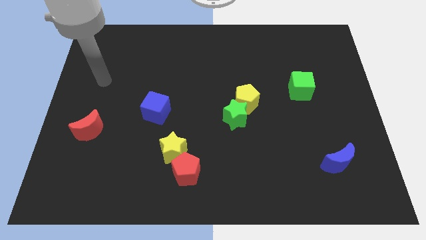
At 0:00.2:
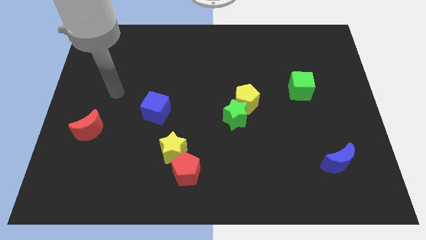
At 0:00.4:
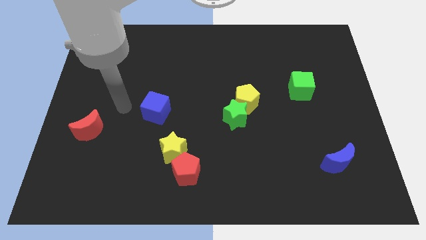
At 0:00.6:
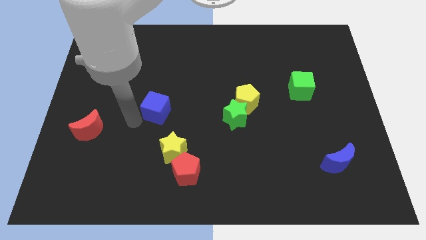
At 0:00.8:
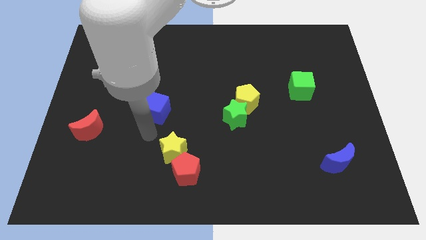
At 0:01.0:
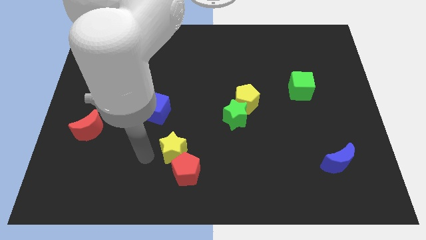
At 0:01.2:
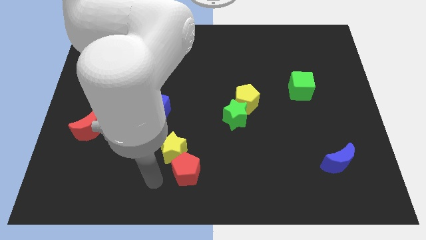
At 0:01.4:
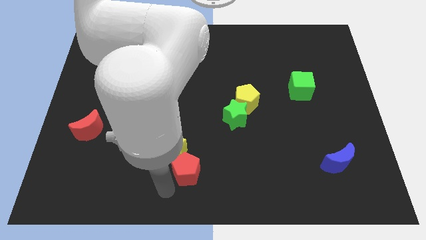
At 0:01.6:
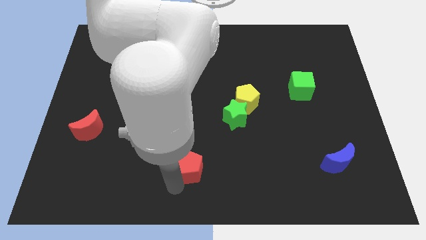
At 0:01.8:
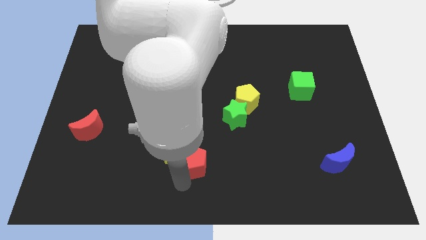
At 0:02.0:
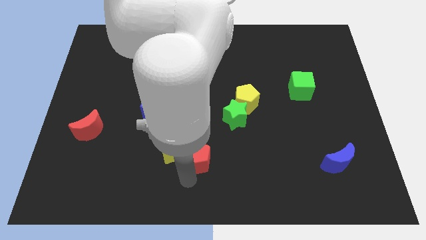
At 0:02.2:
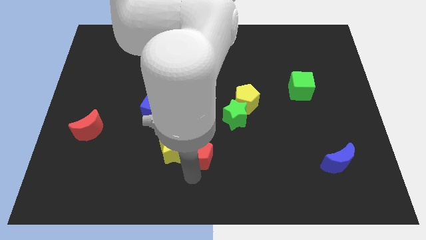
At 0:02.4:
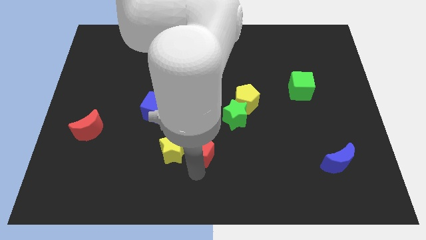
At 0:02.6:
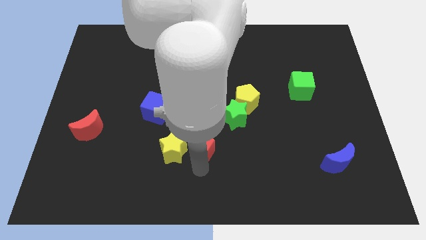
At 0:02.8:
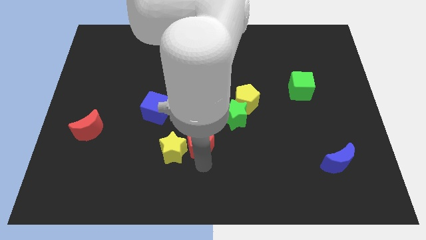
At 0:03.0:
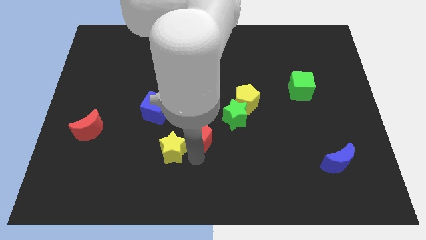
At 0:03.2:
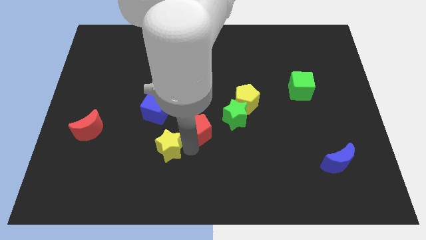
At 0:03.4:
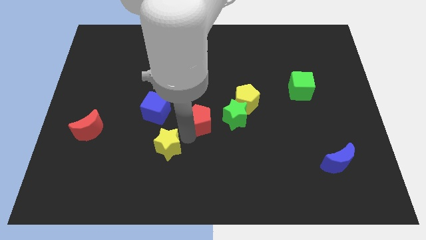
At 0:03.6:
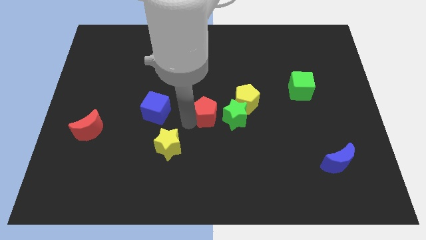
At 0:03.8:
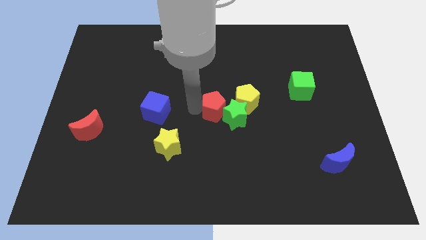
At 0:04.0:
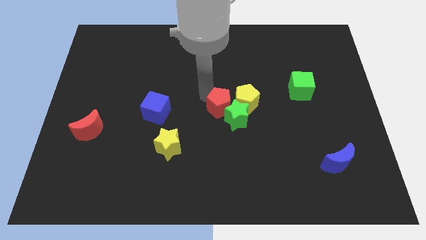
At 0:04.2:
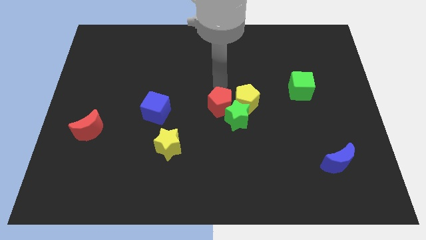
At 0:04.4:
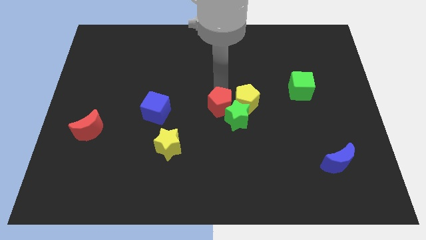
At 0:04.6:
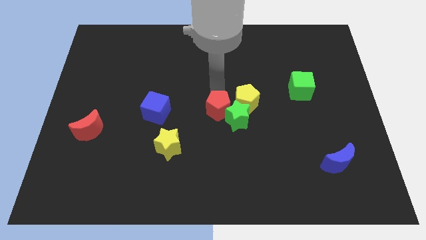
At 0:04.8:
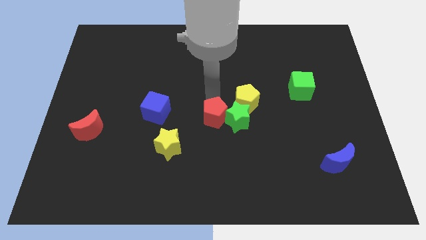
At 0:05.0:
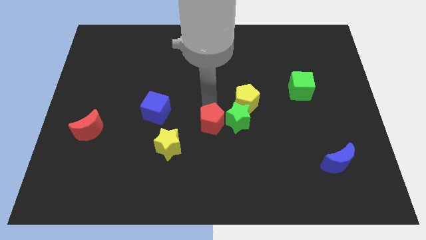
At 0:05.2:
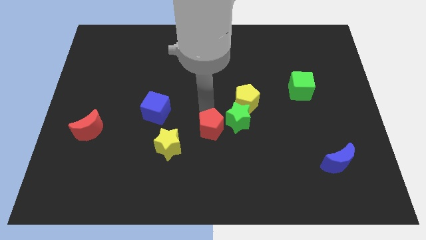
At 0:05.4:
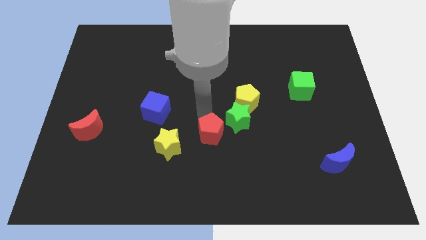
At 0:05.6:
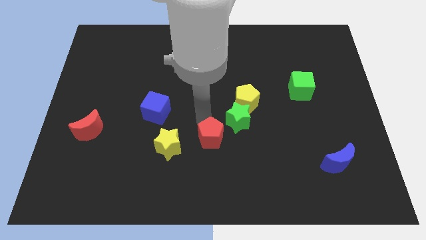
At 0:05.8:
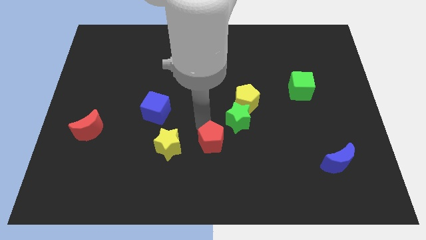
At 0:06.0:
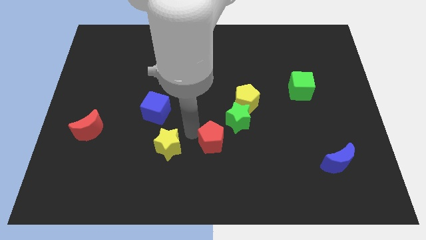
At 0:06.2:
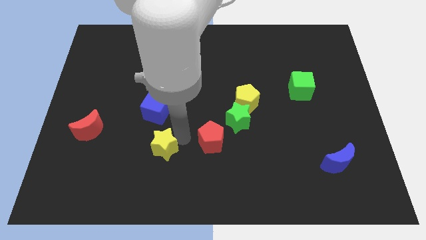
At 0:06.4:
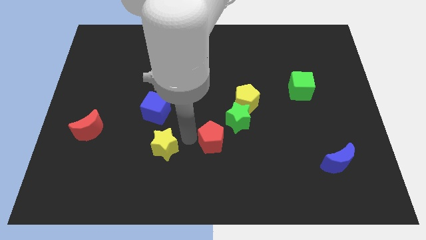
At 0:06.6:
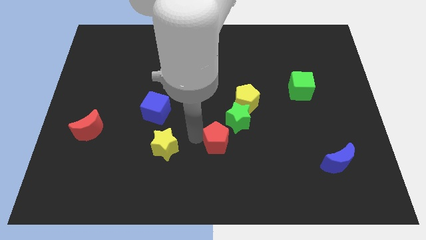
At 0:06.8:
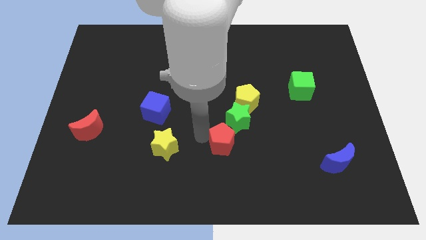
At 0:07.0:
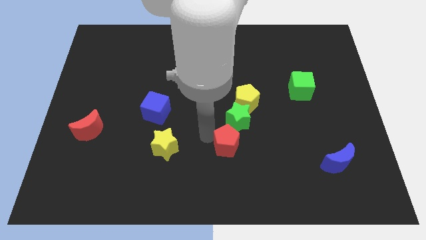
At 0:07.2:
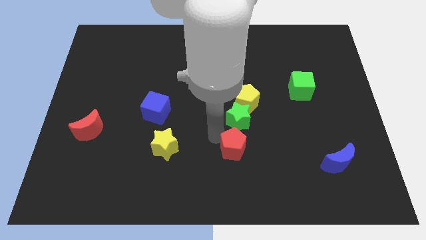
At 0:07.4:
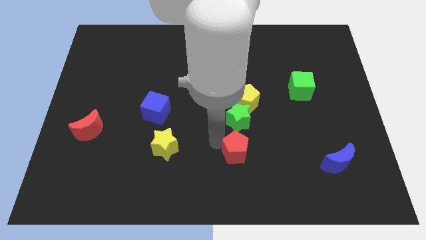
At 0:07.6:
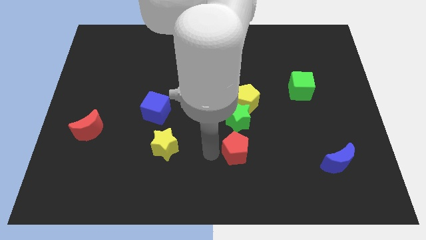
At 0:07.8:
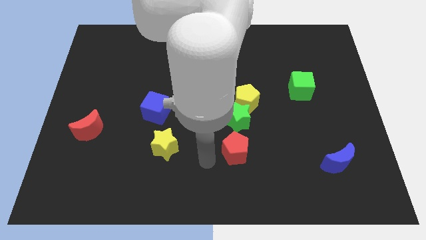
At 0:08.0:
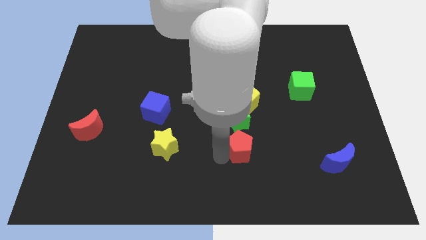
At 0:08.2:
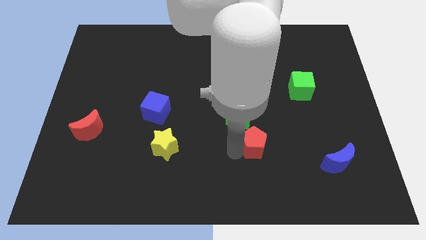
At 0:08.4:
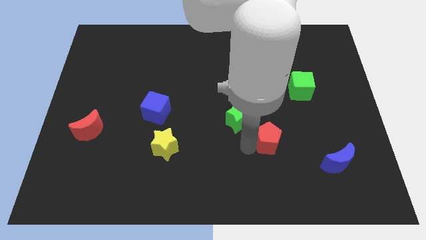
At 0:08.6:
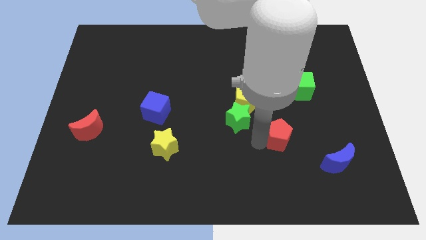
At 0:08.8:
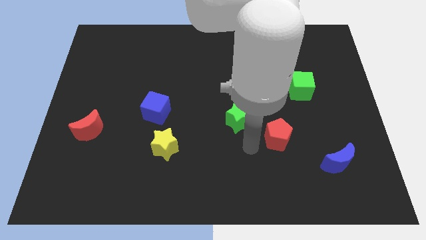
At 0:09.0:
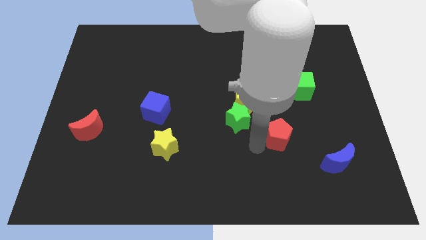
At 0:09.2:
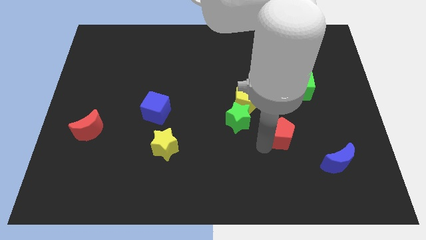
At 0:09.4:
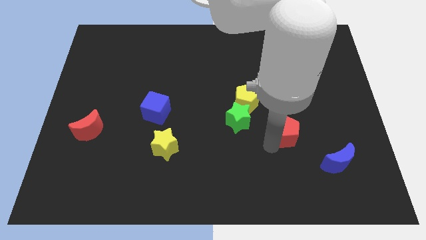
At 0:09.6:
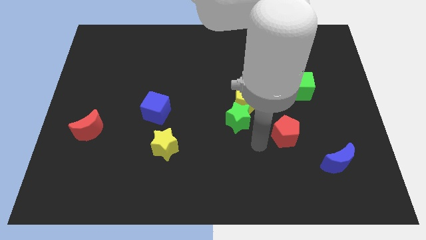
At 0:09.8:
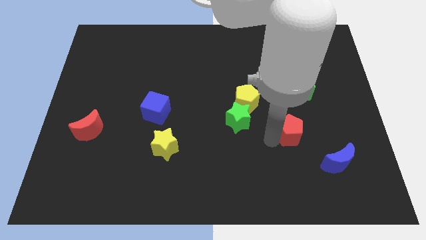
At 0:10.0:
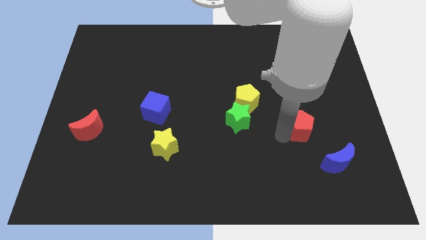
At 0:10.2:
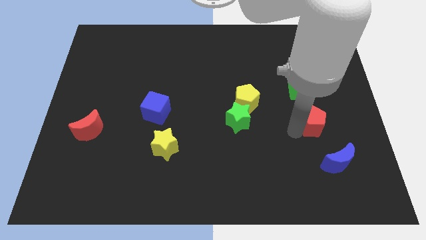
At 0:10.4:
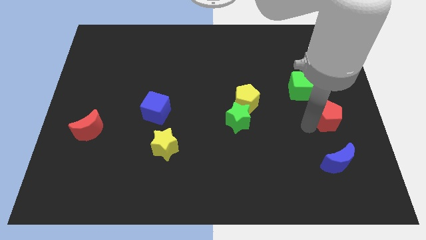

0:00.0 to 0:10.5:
move the red pentagon to the right side

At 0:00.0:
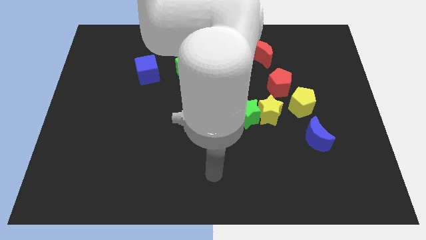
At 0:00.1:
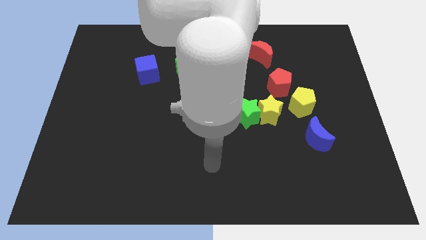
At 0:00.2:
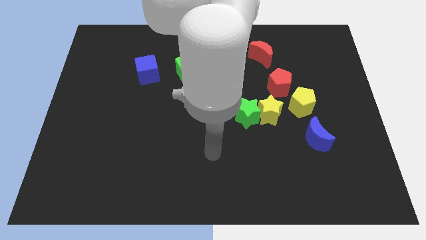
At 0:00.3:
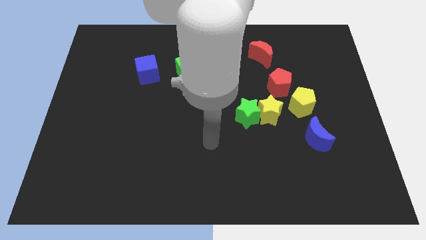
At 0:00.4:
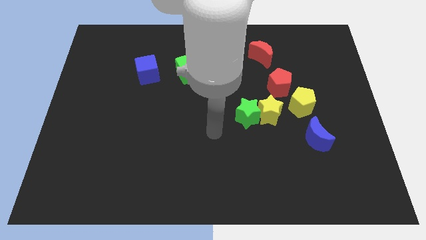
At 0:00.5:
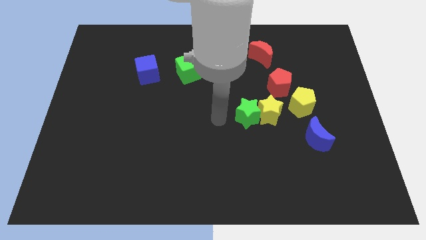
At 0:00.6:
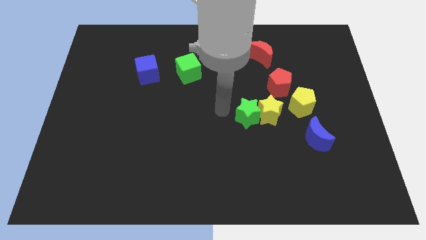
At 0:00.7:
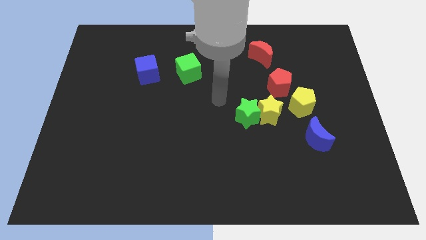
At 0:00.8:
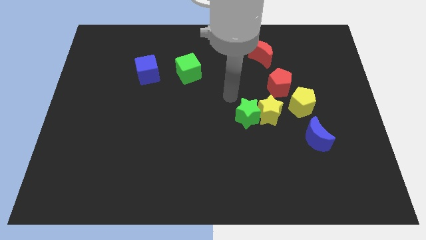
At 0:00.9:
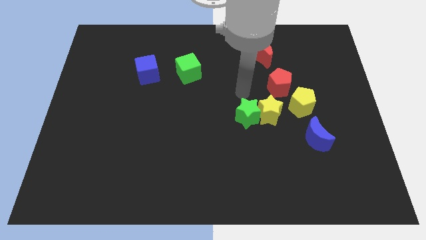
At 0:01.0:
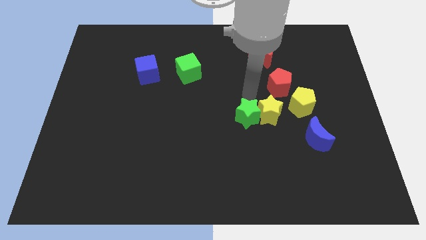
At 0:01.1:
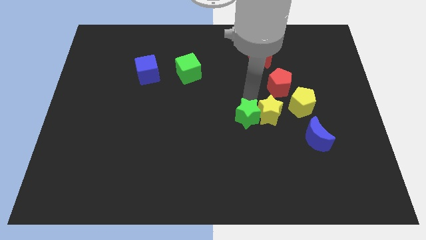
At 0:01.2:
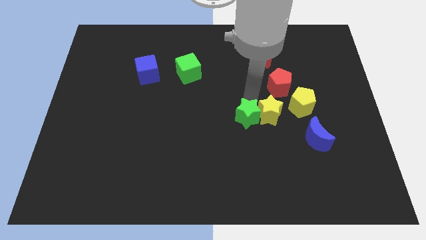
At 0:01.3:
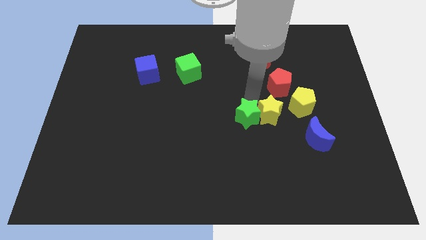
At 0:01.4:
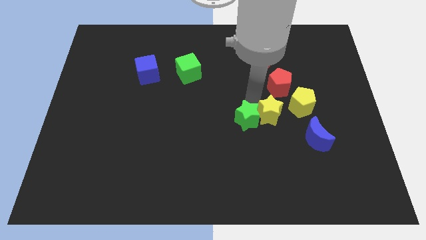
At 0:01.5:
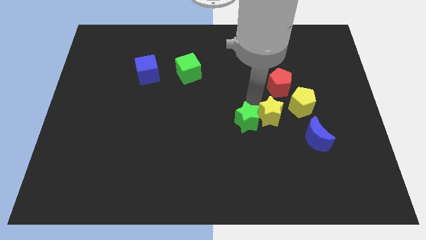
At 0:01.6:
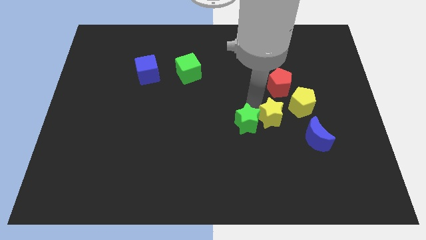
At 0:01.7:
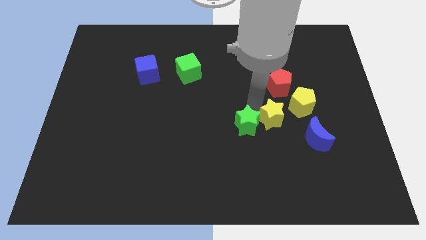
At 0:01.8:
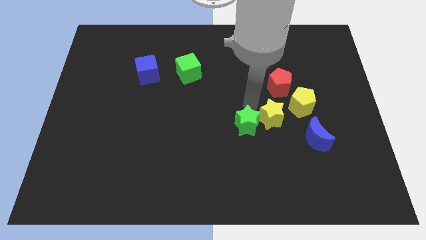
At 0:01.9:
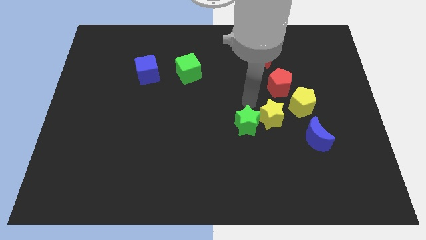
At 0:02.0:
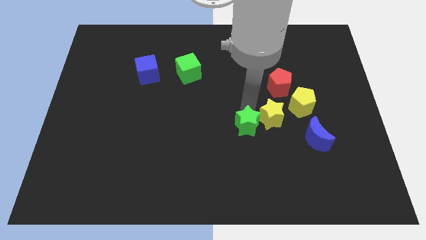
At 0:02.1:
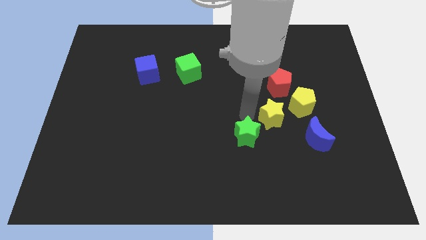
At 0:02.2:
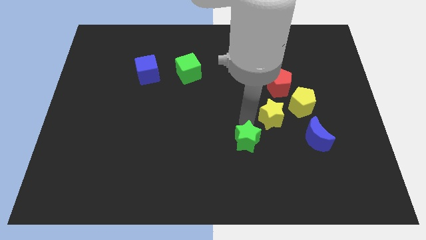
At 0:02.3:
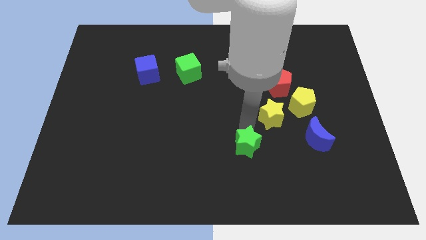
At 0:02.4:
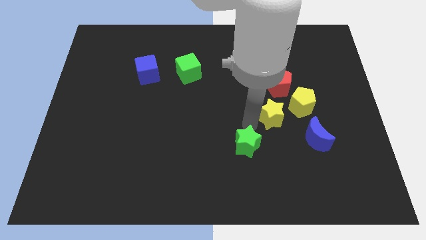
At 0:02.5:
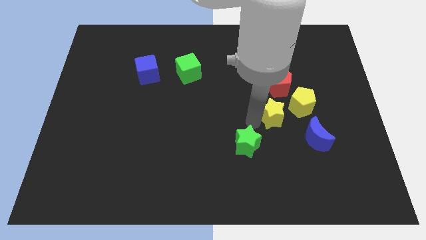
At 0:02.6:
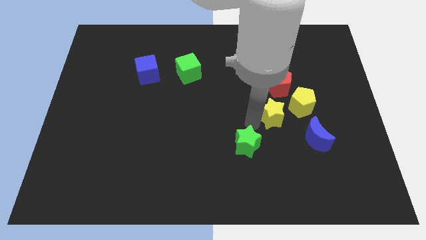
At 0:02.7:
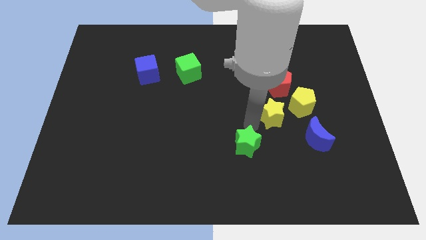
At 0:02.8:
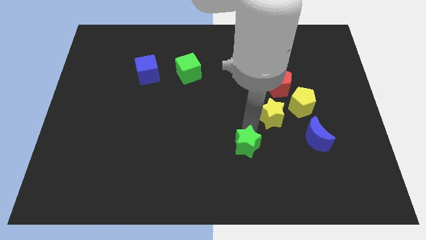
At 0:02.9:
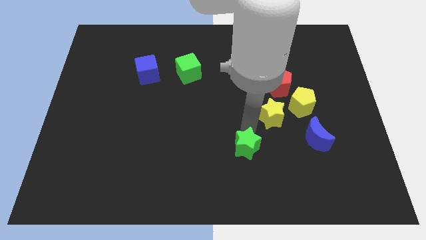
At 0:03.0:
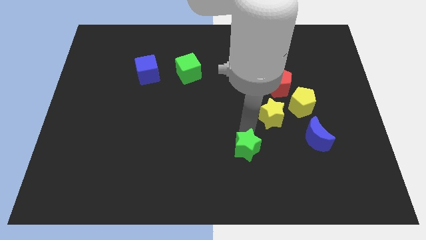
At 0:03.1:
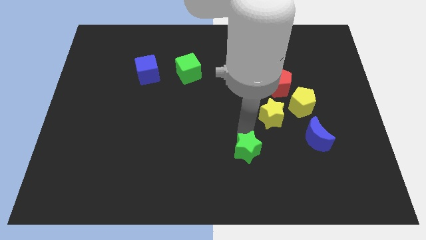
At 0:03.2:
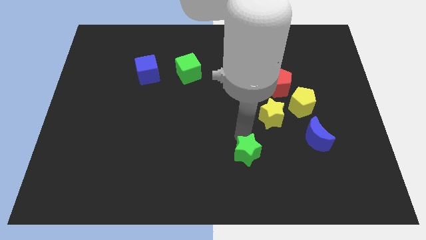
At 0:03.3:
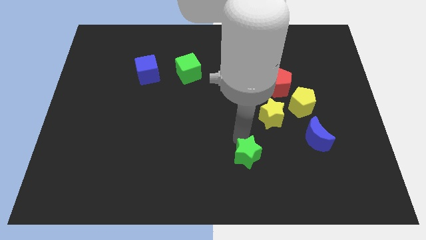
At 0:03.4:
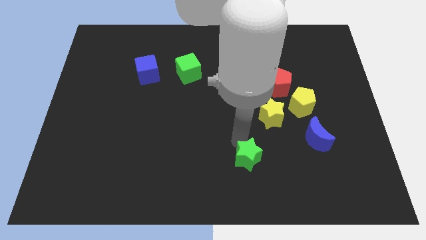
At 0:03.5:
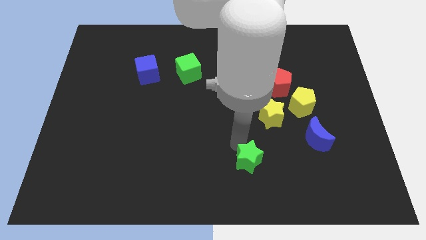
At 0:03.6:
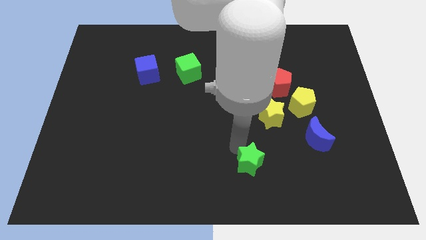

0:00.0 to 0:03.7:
push the green star to the bottom
